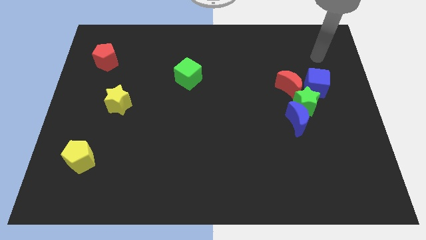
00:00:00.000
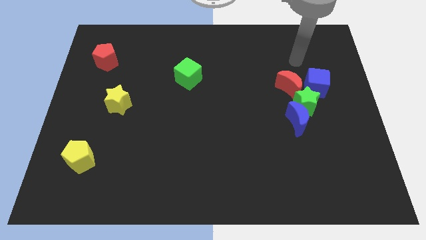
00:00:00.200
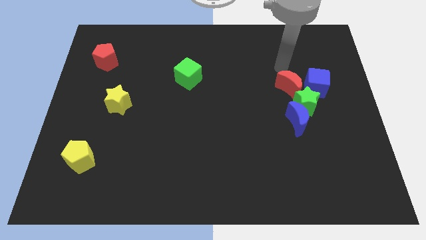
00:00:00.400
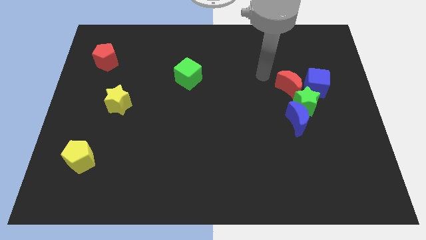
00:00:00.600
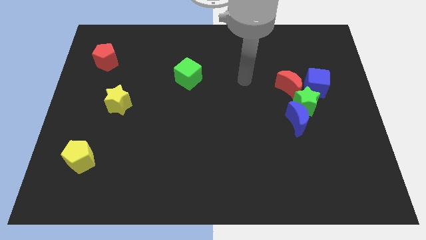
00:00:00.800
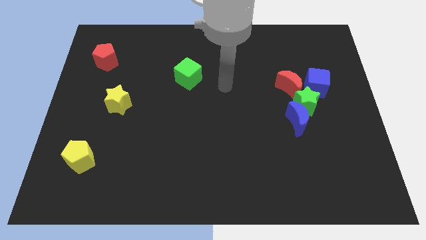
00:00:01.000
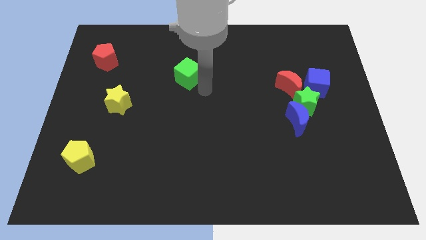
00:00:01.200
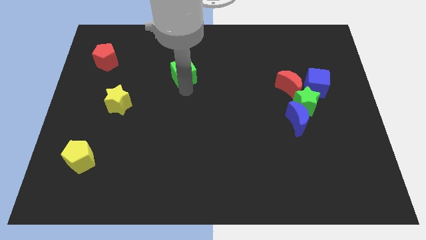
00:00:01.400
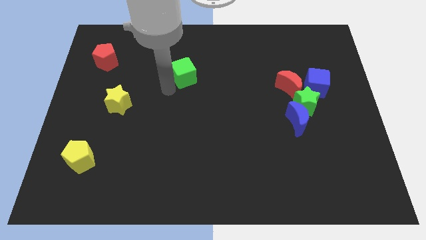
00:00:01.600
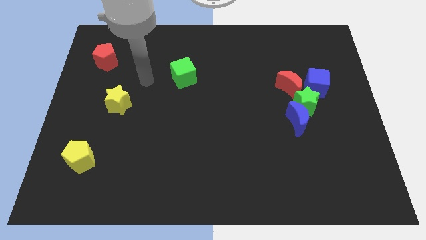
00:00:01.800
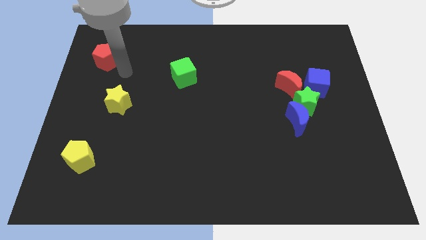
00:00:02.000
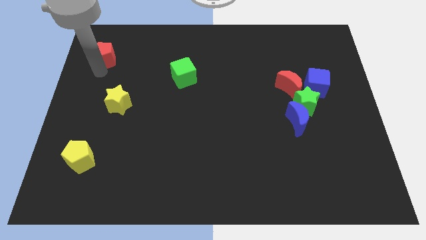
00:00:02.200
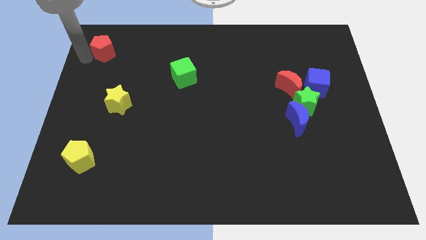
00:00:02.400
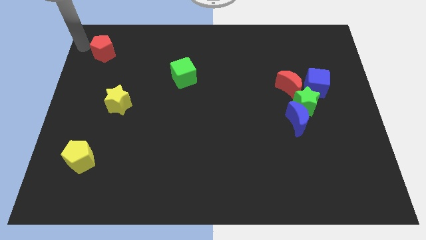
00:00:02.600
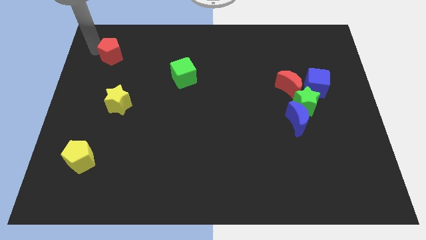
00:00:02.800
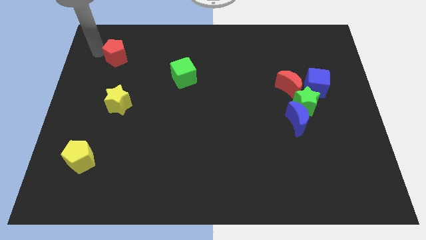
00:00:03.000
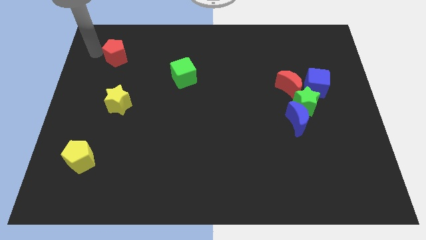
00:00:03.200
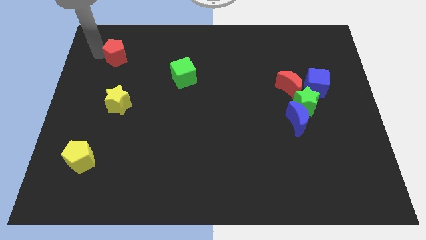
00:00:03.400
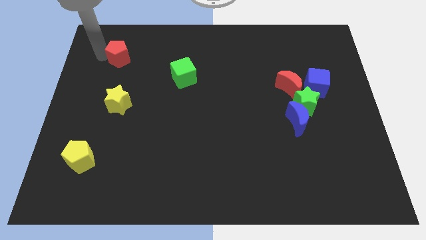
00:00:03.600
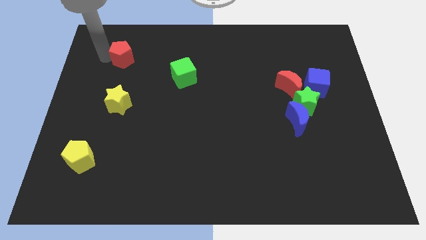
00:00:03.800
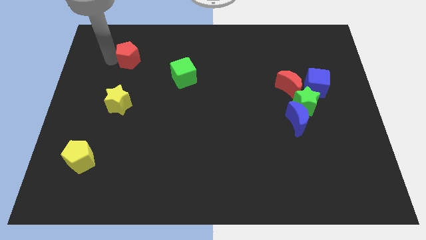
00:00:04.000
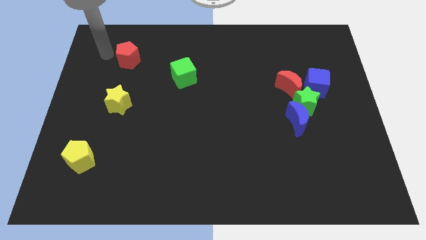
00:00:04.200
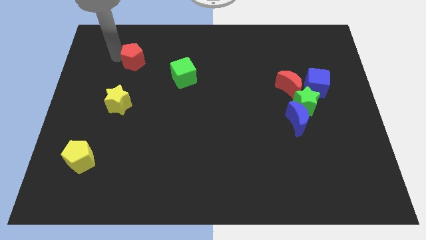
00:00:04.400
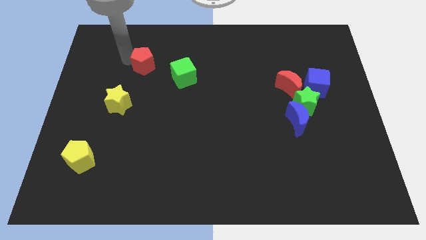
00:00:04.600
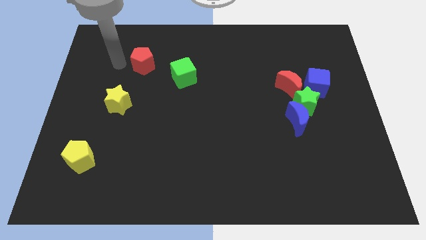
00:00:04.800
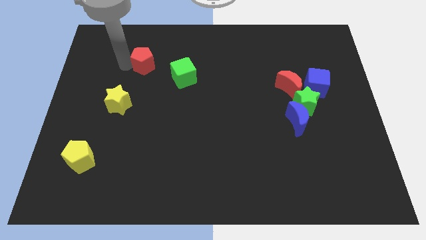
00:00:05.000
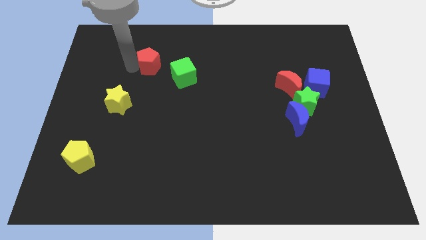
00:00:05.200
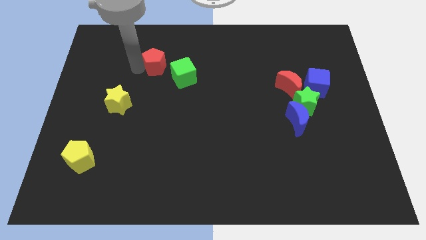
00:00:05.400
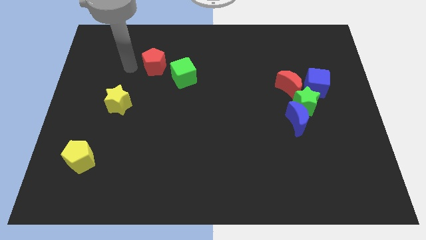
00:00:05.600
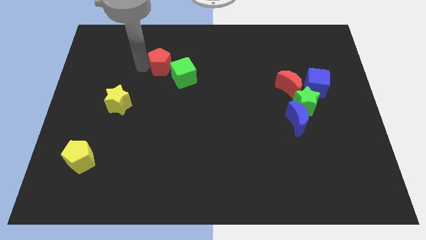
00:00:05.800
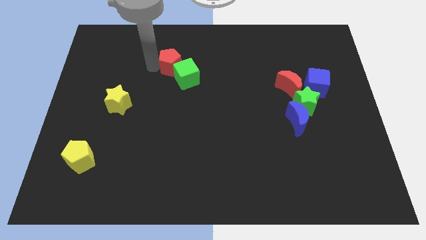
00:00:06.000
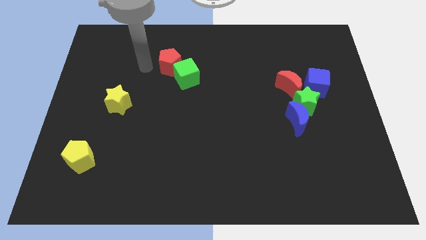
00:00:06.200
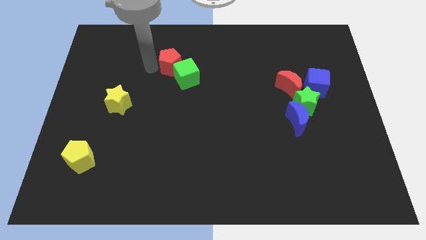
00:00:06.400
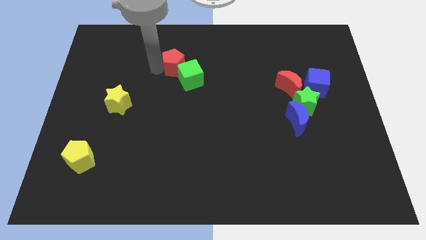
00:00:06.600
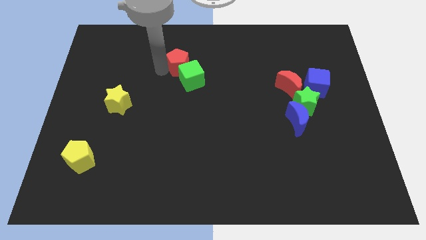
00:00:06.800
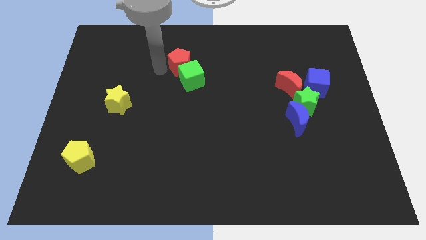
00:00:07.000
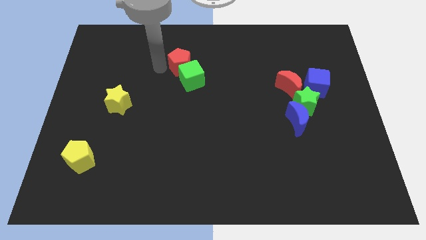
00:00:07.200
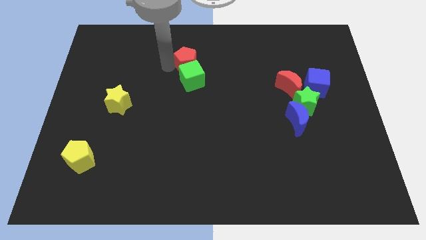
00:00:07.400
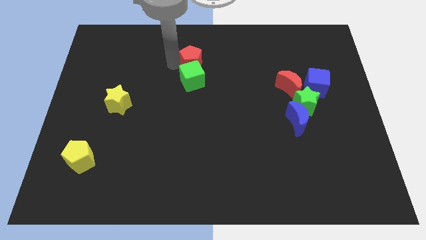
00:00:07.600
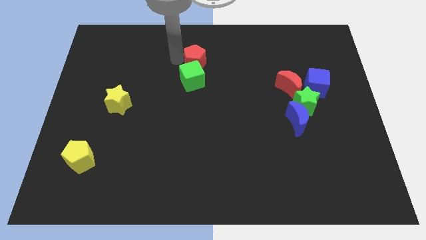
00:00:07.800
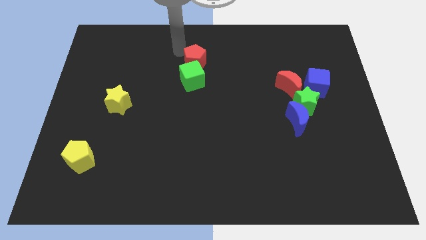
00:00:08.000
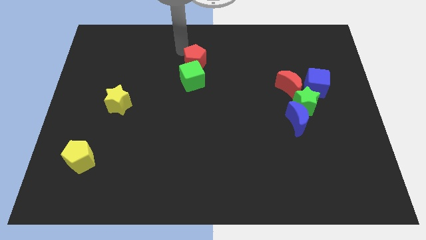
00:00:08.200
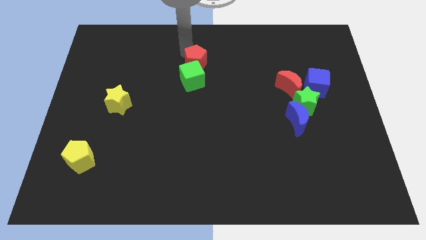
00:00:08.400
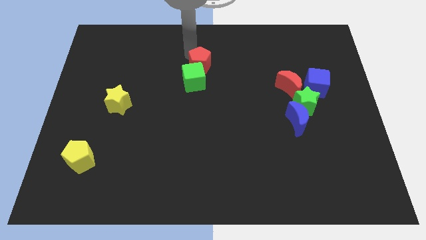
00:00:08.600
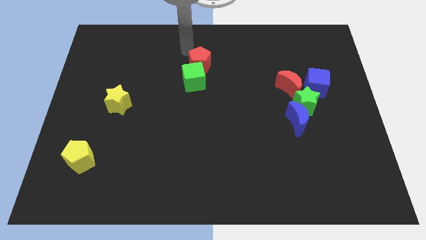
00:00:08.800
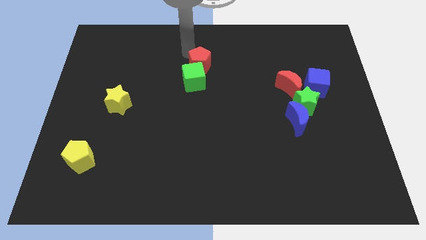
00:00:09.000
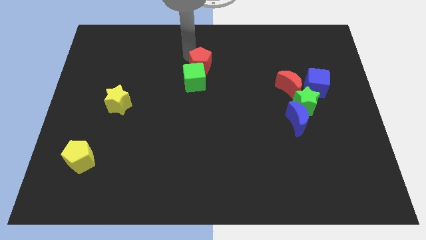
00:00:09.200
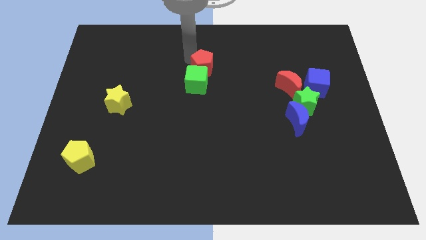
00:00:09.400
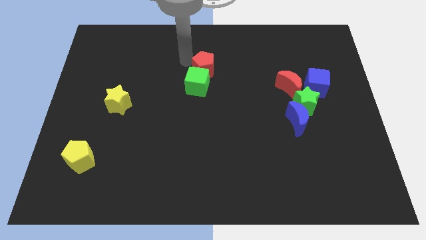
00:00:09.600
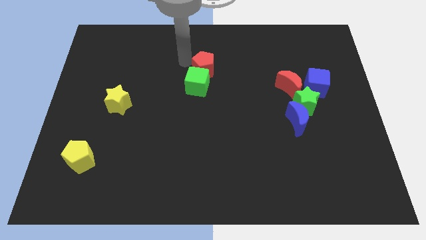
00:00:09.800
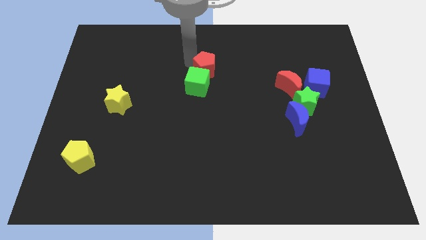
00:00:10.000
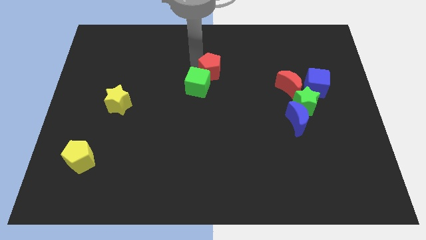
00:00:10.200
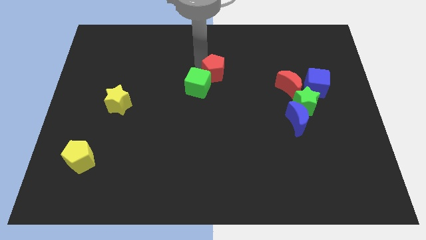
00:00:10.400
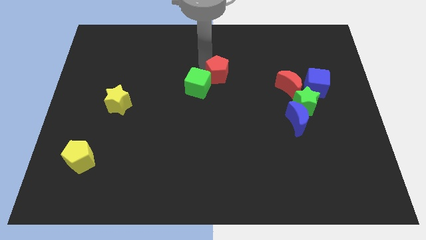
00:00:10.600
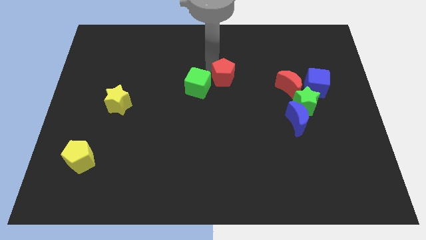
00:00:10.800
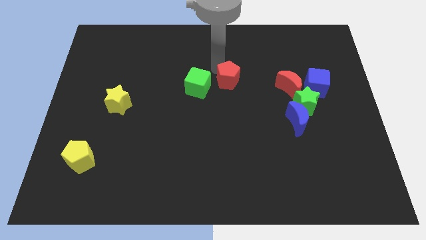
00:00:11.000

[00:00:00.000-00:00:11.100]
slide the red pentagon left of the red moon

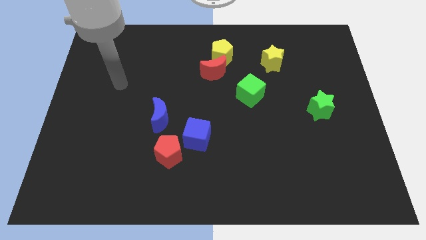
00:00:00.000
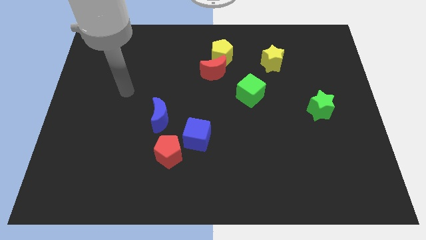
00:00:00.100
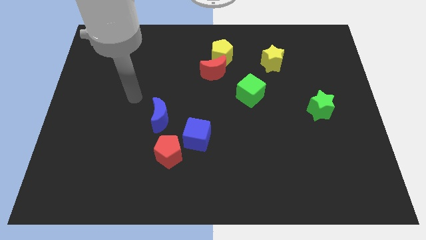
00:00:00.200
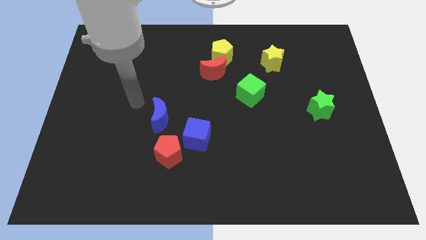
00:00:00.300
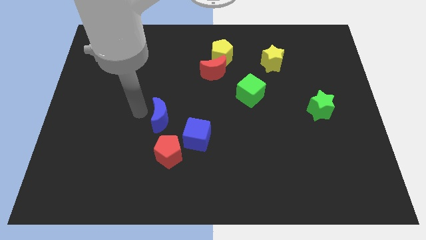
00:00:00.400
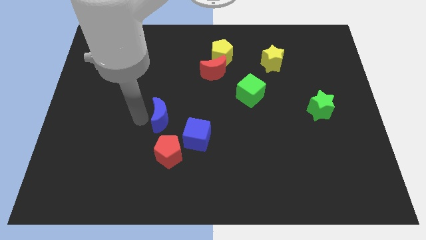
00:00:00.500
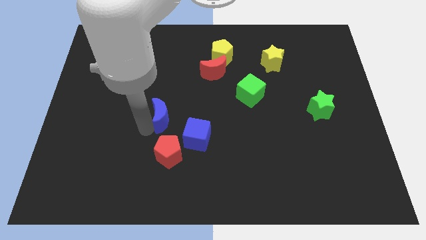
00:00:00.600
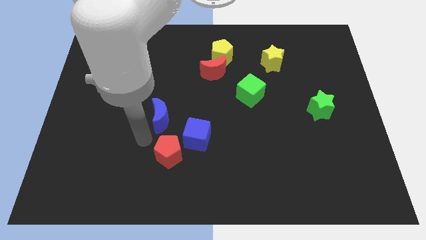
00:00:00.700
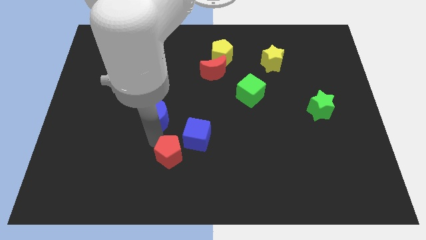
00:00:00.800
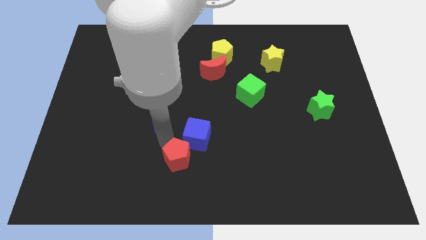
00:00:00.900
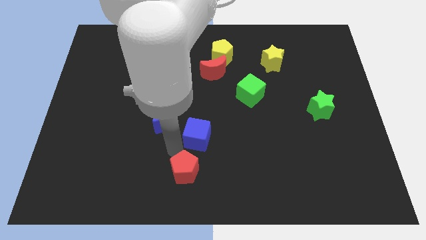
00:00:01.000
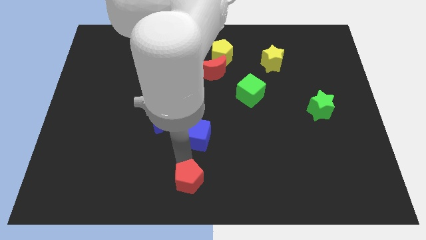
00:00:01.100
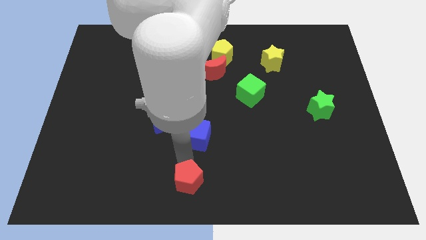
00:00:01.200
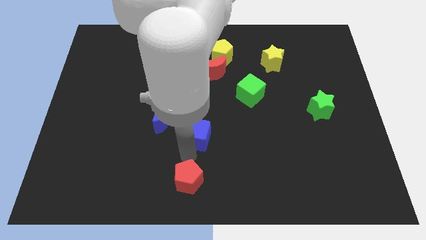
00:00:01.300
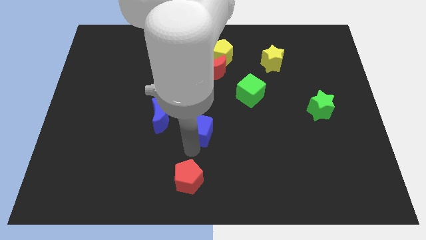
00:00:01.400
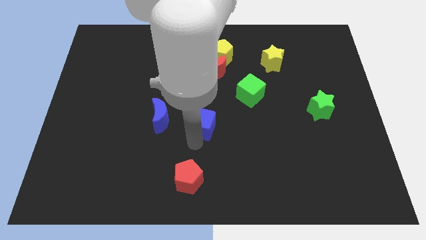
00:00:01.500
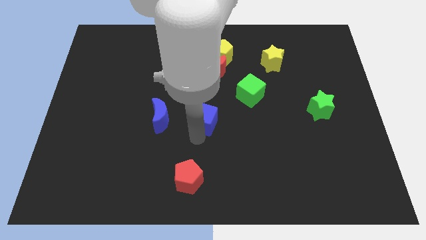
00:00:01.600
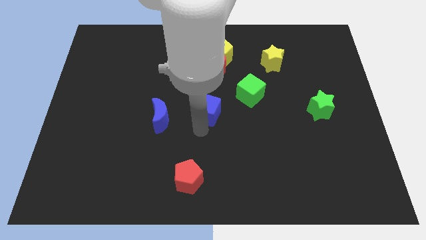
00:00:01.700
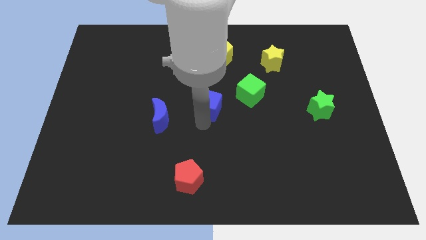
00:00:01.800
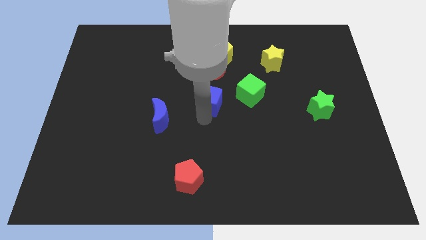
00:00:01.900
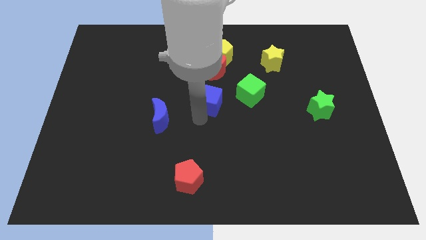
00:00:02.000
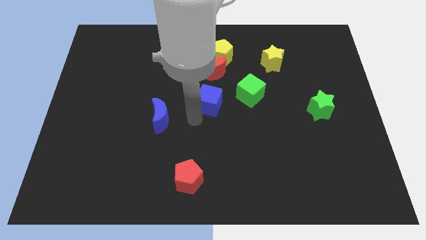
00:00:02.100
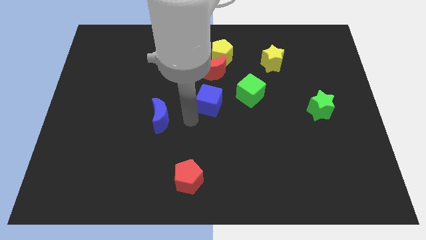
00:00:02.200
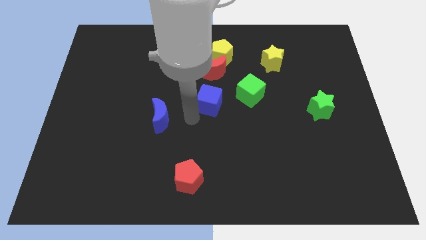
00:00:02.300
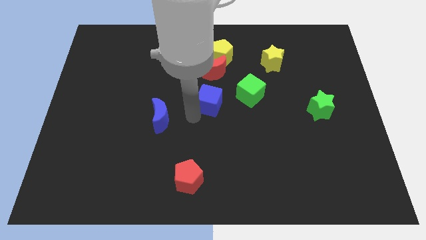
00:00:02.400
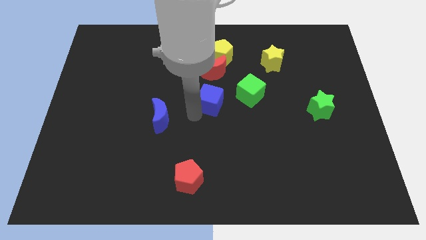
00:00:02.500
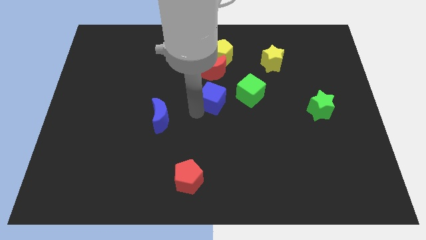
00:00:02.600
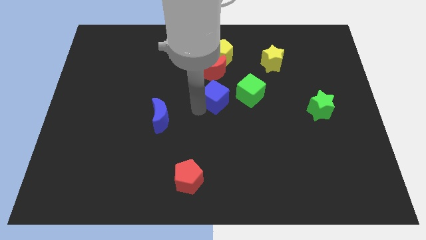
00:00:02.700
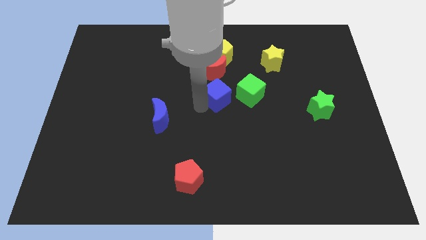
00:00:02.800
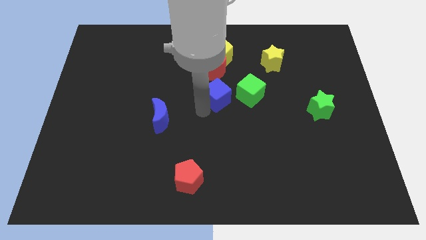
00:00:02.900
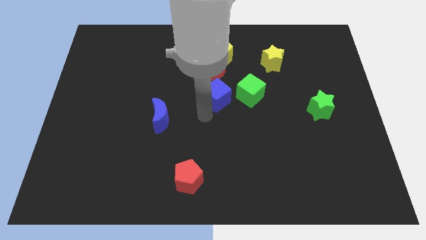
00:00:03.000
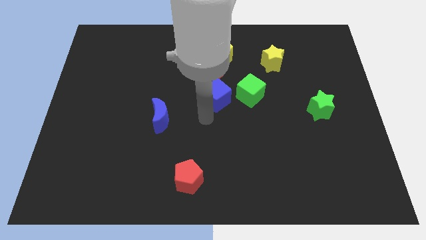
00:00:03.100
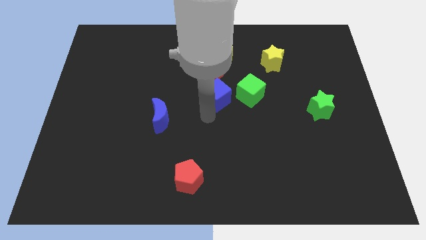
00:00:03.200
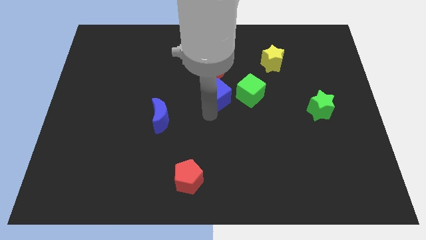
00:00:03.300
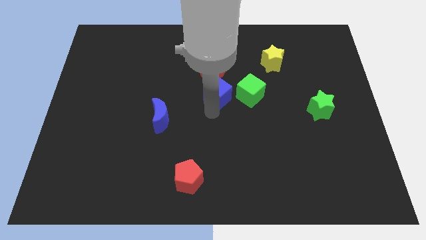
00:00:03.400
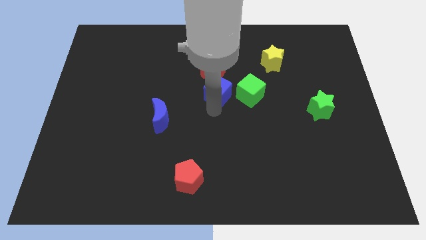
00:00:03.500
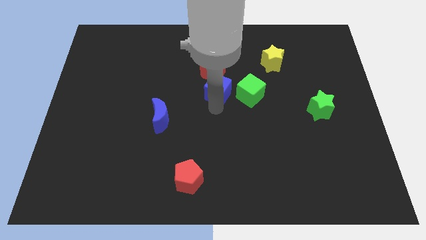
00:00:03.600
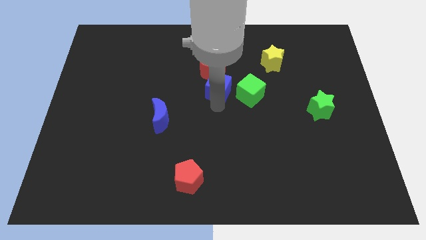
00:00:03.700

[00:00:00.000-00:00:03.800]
move the blue cube to the top left side of the green cube
